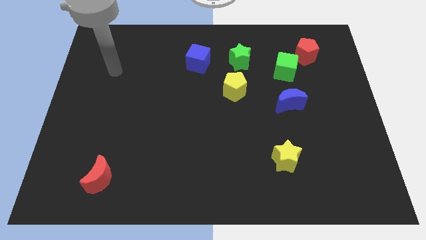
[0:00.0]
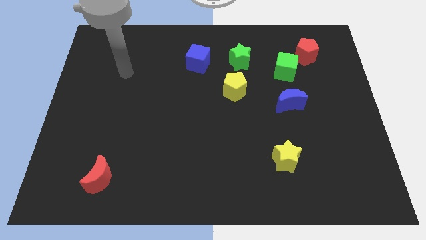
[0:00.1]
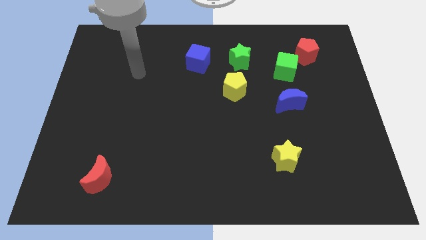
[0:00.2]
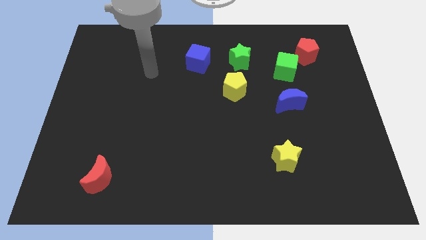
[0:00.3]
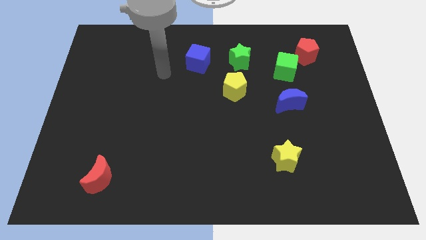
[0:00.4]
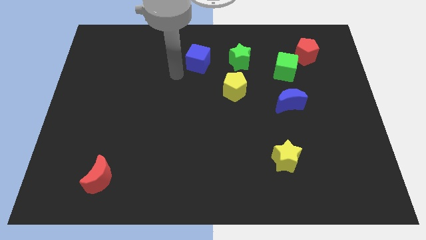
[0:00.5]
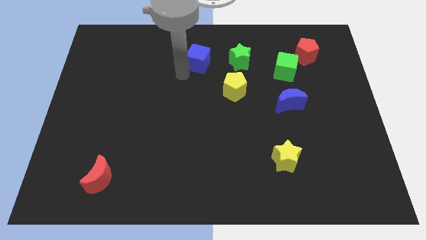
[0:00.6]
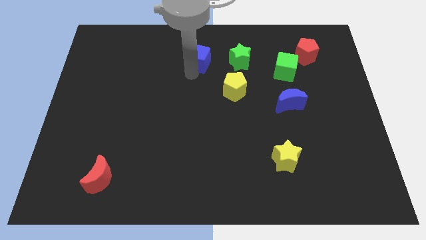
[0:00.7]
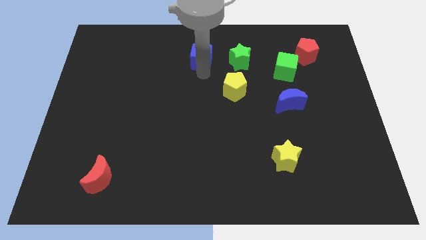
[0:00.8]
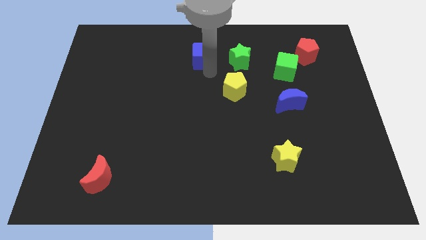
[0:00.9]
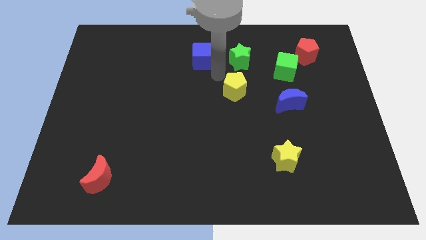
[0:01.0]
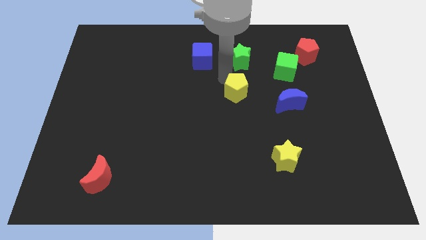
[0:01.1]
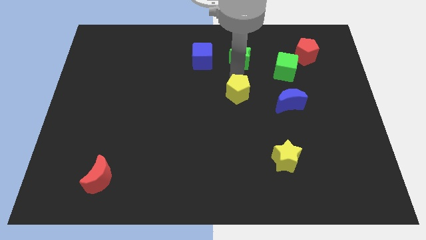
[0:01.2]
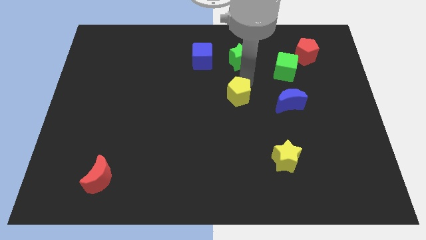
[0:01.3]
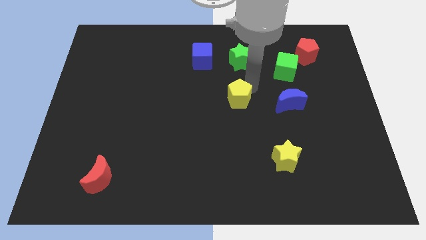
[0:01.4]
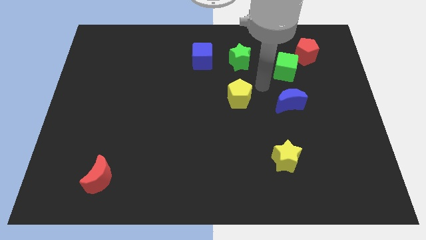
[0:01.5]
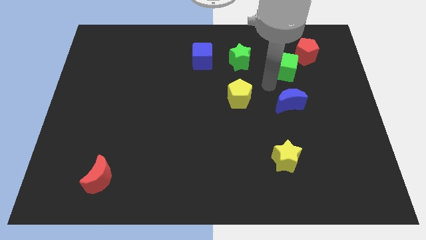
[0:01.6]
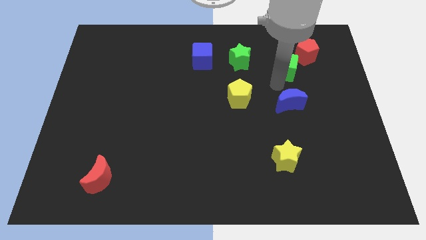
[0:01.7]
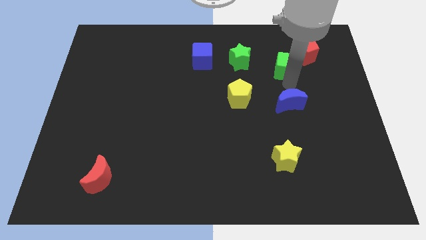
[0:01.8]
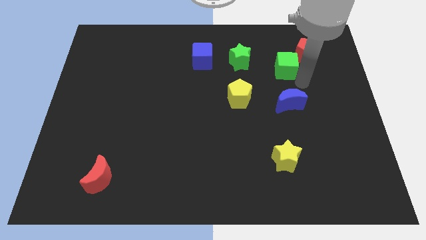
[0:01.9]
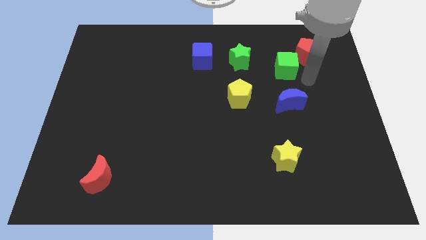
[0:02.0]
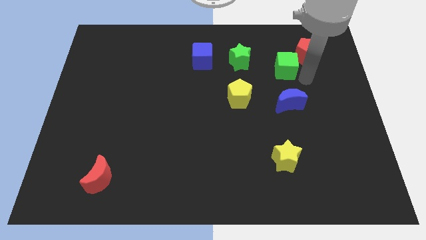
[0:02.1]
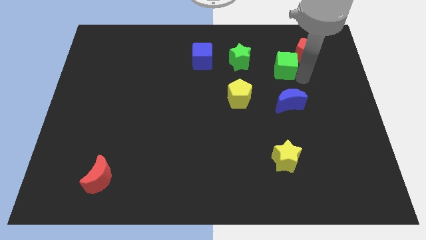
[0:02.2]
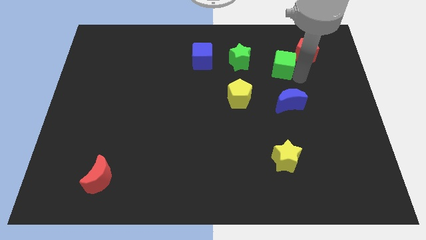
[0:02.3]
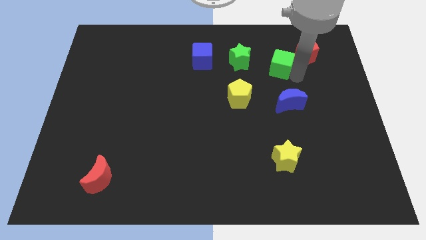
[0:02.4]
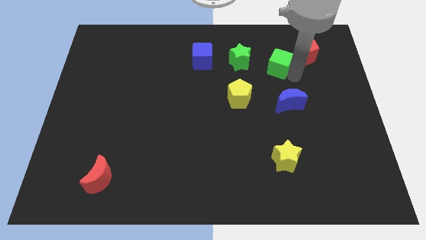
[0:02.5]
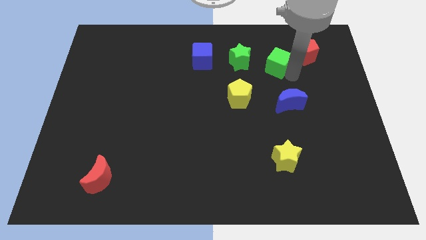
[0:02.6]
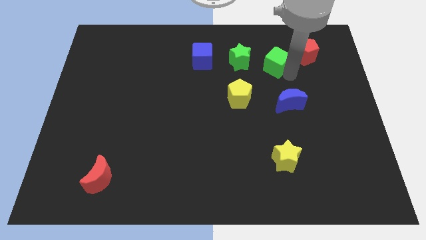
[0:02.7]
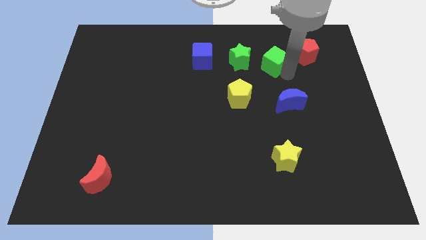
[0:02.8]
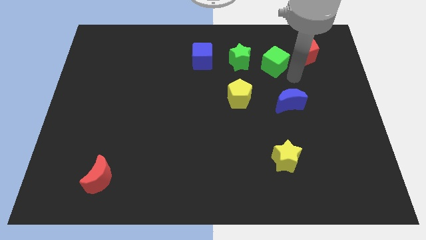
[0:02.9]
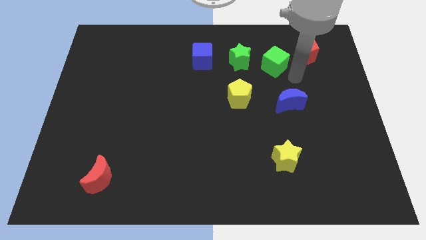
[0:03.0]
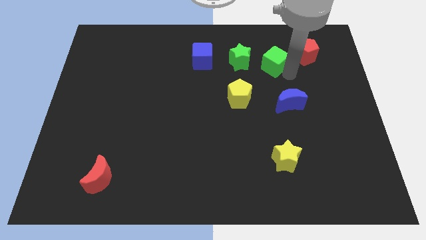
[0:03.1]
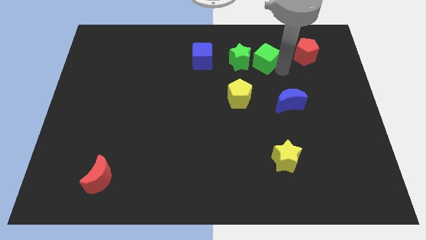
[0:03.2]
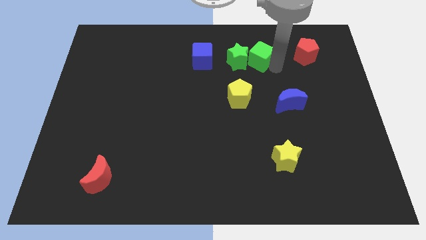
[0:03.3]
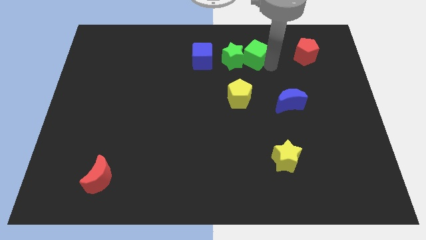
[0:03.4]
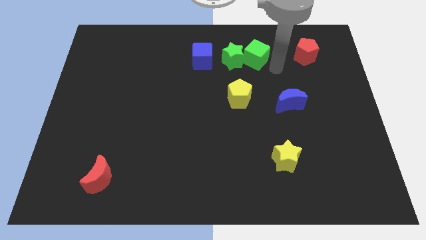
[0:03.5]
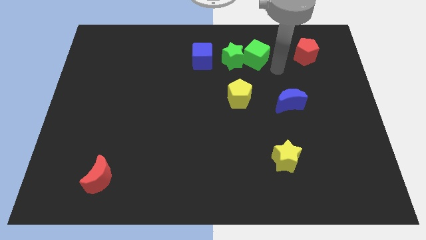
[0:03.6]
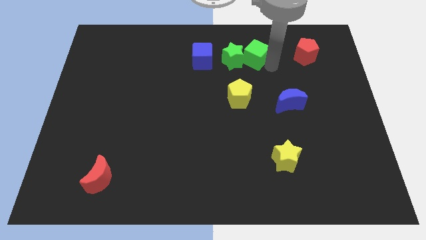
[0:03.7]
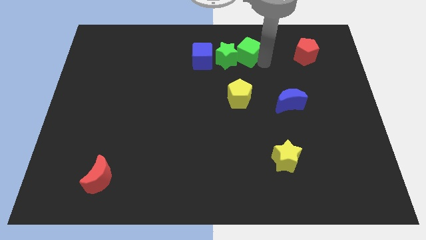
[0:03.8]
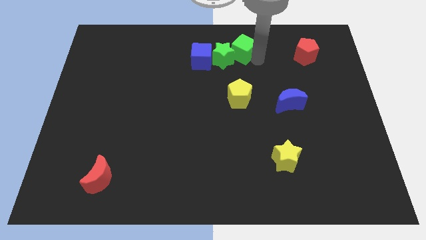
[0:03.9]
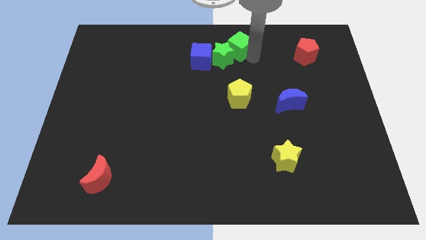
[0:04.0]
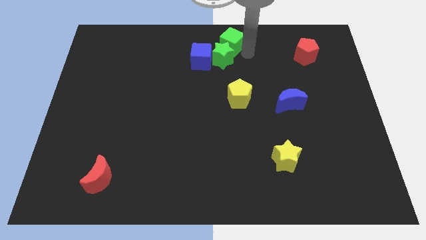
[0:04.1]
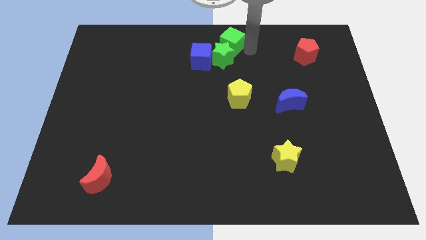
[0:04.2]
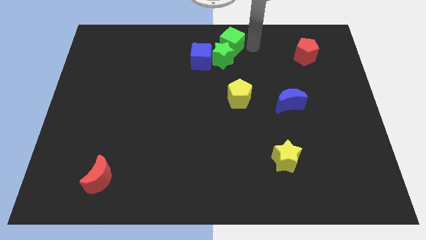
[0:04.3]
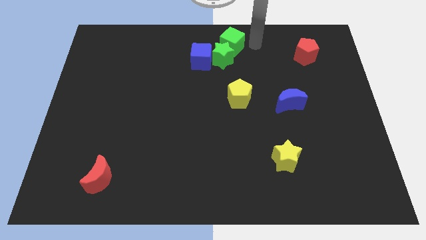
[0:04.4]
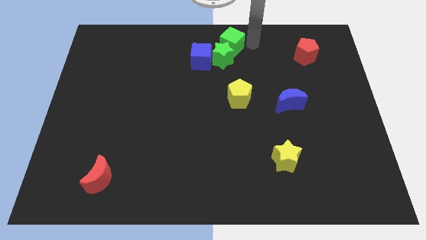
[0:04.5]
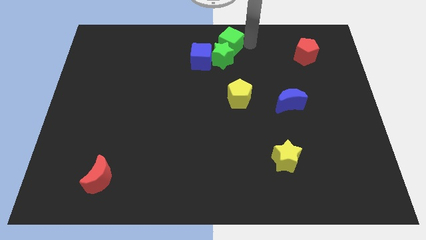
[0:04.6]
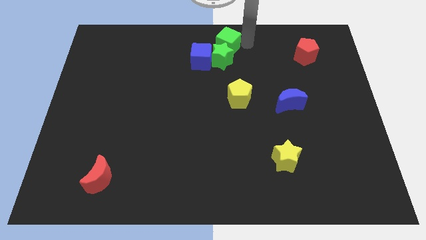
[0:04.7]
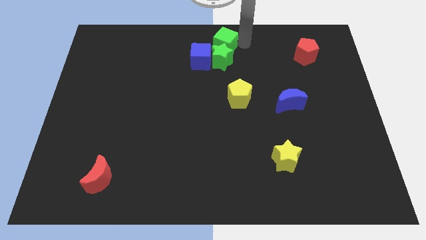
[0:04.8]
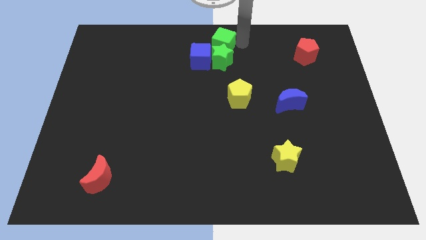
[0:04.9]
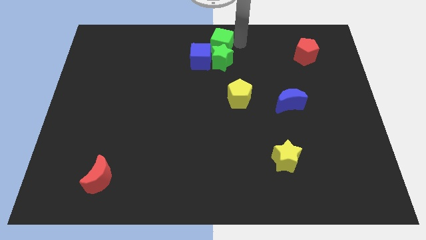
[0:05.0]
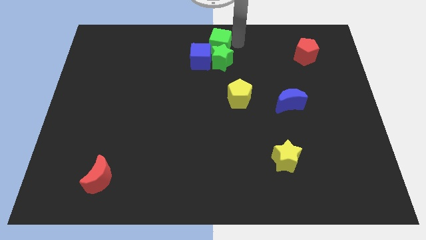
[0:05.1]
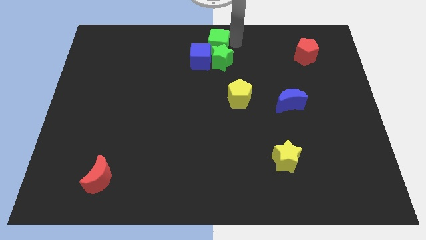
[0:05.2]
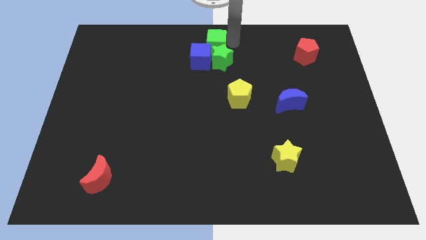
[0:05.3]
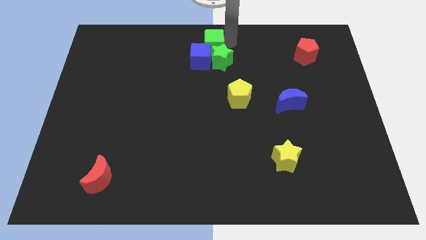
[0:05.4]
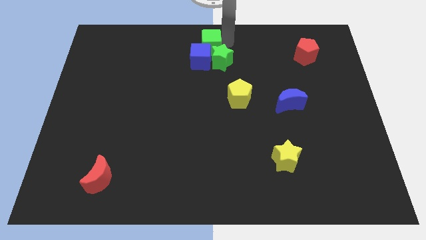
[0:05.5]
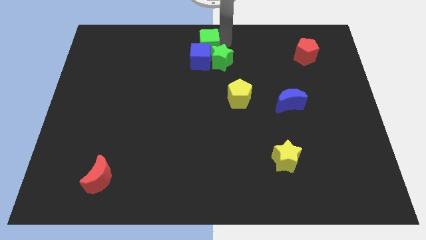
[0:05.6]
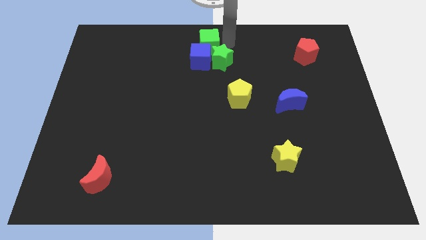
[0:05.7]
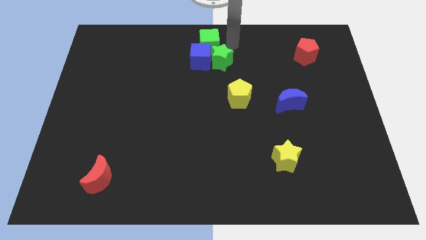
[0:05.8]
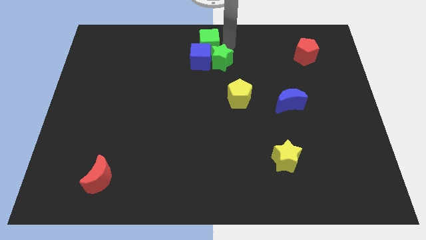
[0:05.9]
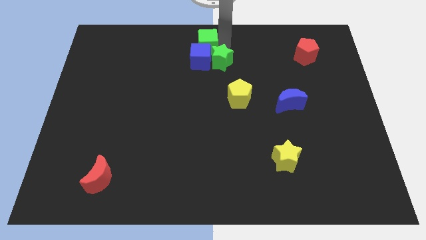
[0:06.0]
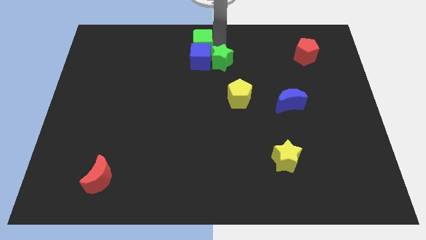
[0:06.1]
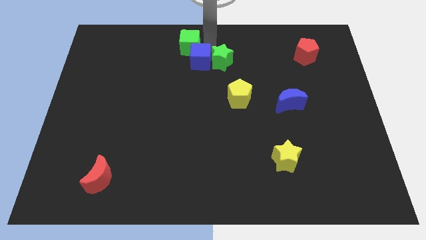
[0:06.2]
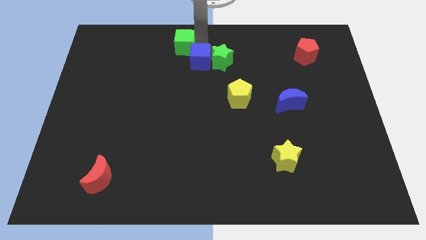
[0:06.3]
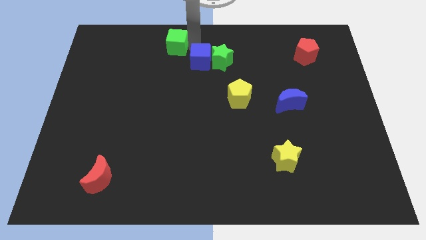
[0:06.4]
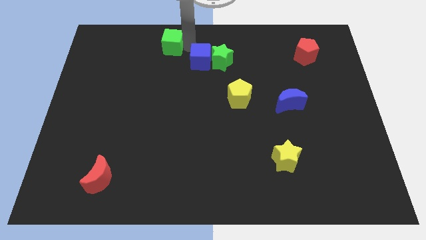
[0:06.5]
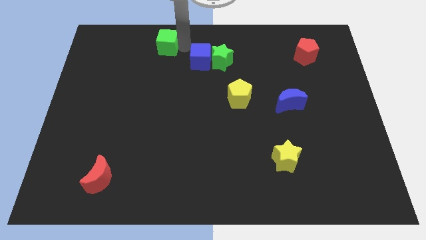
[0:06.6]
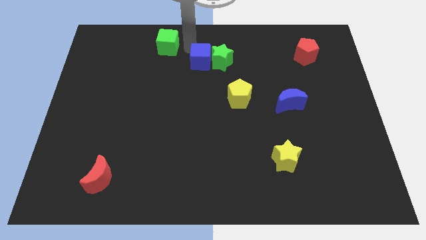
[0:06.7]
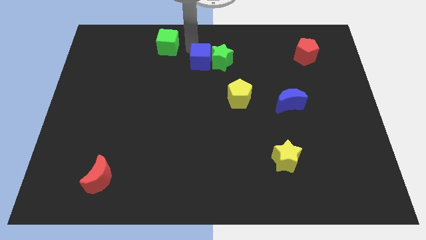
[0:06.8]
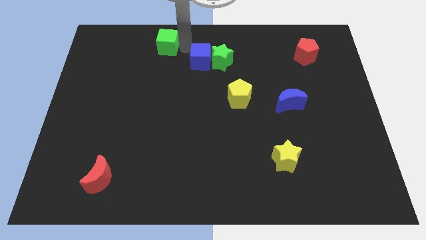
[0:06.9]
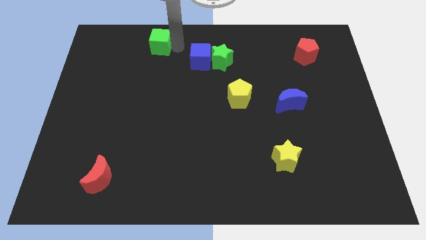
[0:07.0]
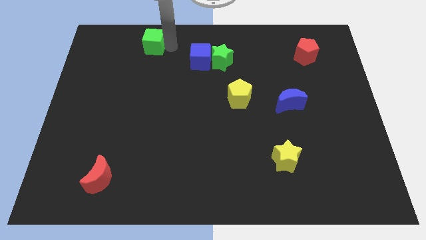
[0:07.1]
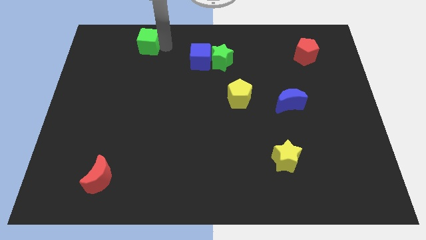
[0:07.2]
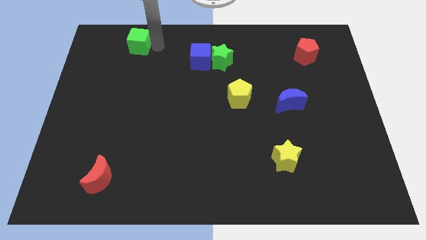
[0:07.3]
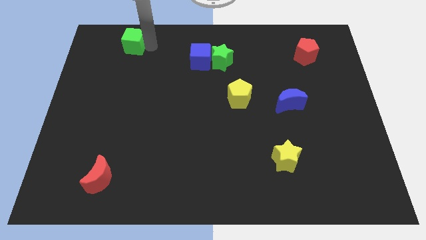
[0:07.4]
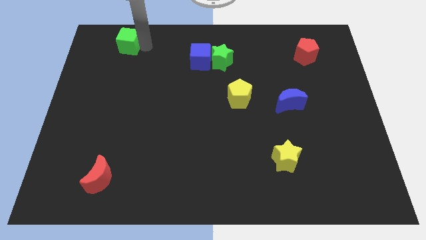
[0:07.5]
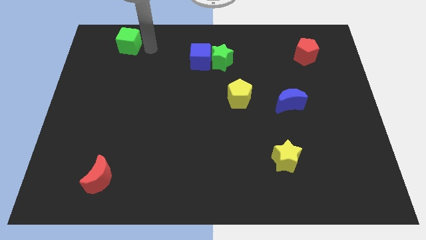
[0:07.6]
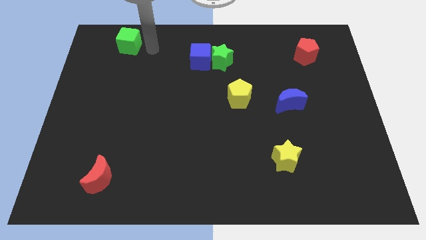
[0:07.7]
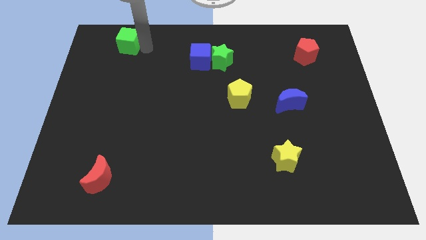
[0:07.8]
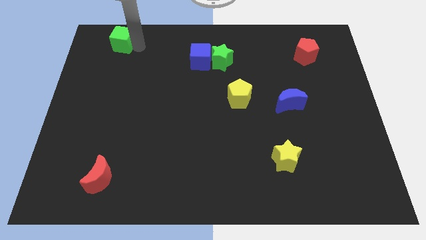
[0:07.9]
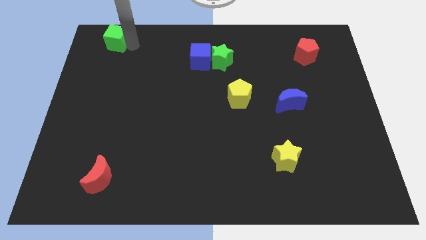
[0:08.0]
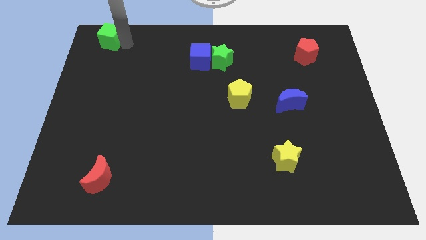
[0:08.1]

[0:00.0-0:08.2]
move the green cube to the top left of the board
